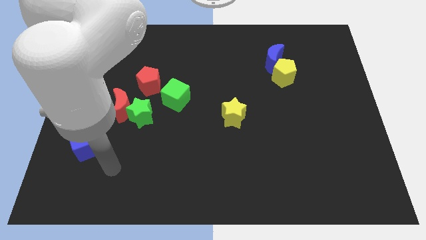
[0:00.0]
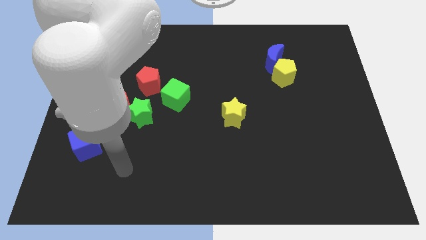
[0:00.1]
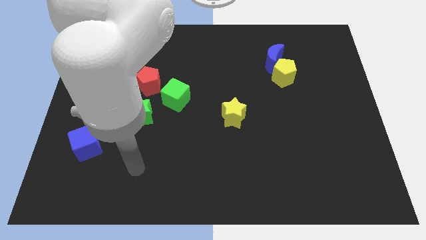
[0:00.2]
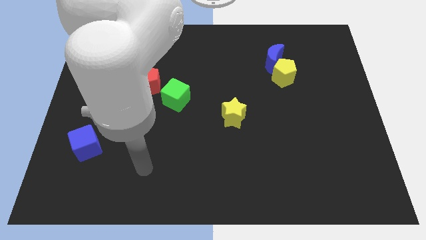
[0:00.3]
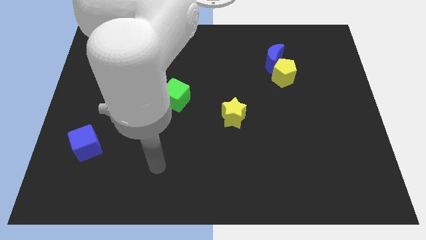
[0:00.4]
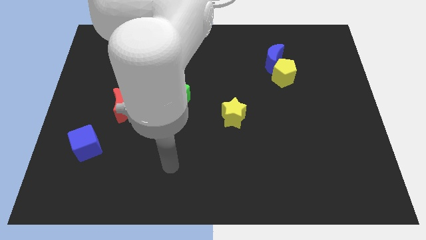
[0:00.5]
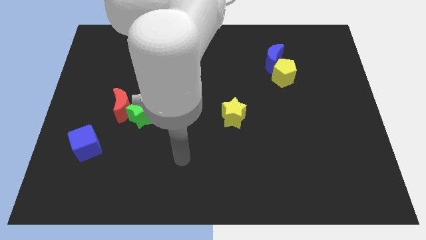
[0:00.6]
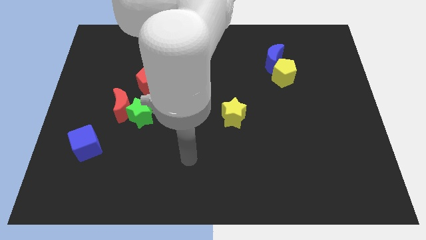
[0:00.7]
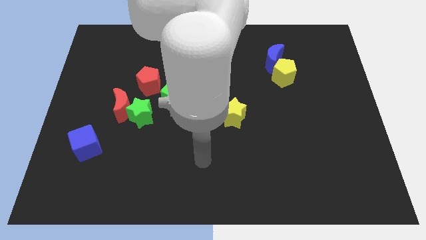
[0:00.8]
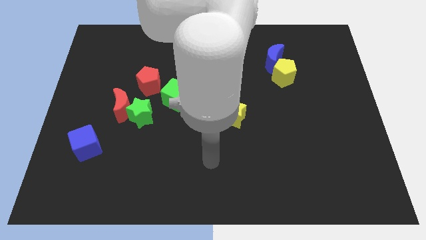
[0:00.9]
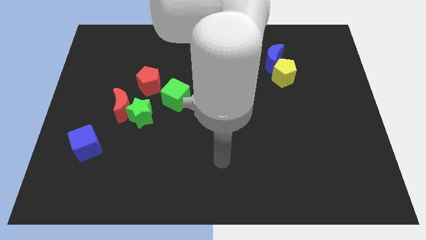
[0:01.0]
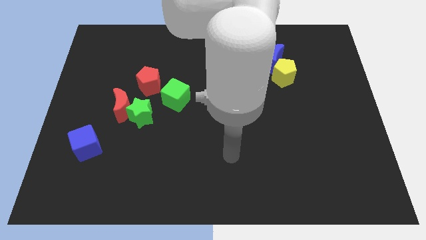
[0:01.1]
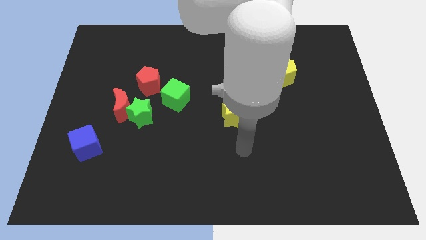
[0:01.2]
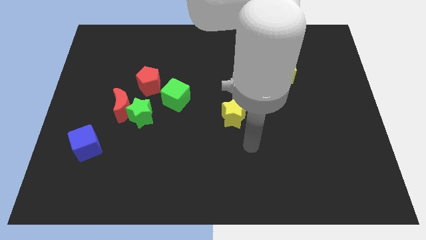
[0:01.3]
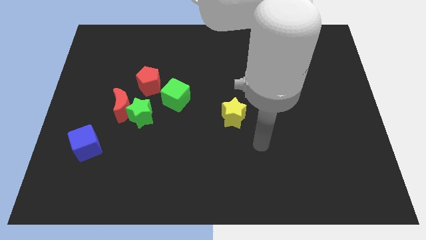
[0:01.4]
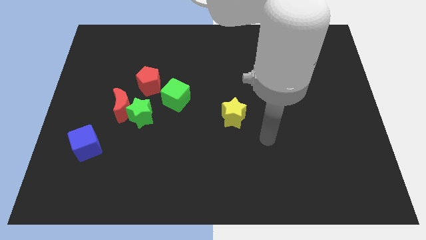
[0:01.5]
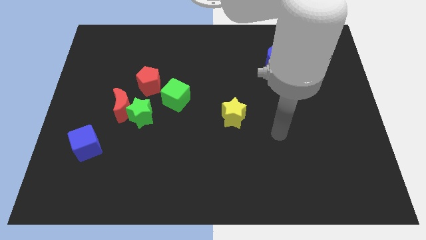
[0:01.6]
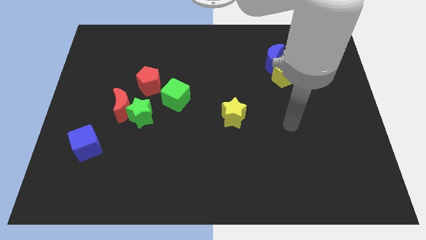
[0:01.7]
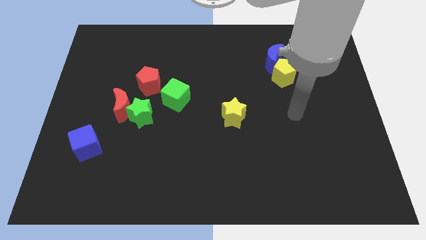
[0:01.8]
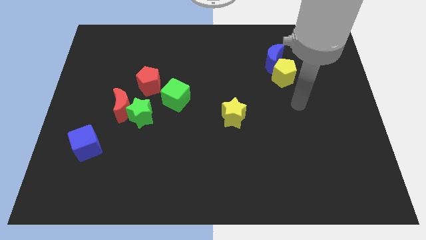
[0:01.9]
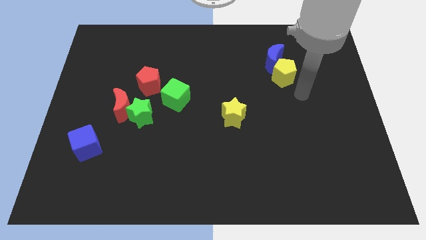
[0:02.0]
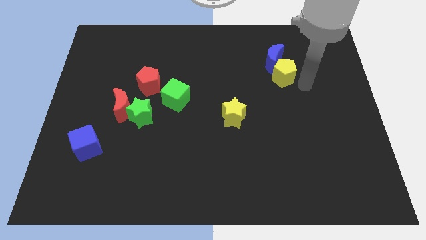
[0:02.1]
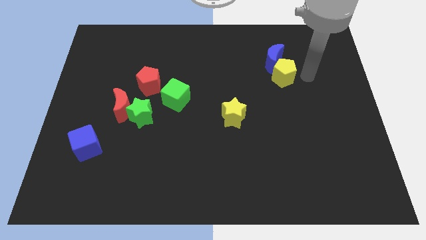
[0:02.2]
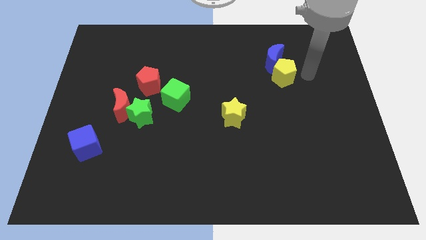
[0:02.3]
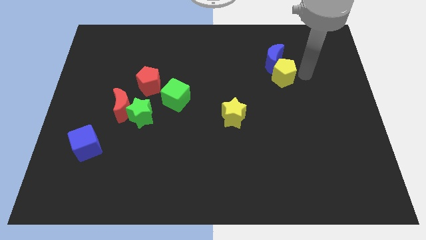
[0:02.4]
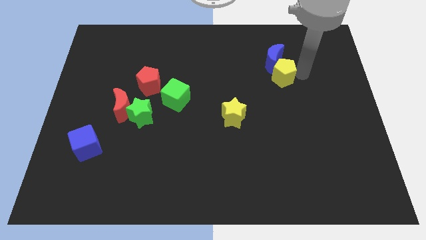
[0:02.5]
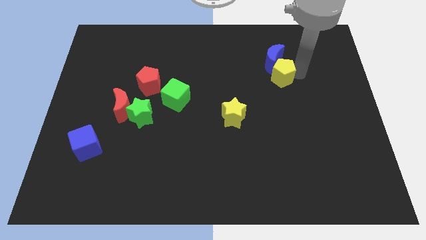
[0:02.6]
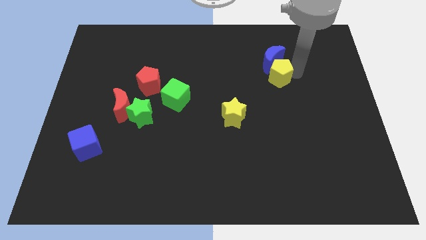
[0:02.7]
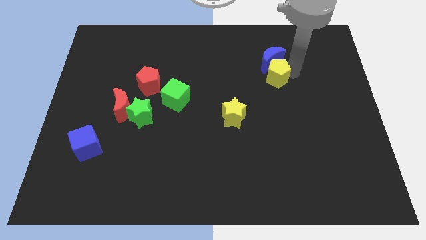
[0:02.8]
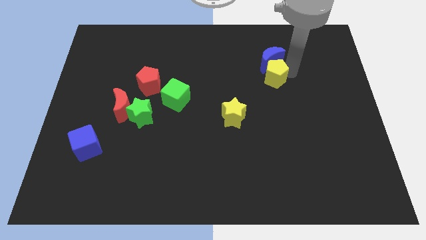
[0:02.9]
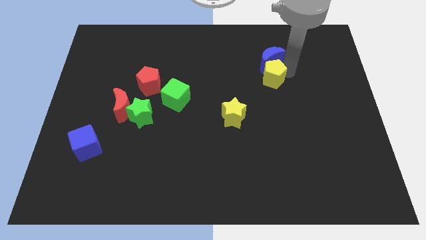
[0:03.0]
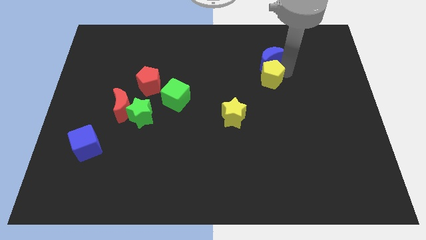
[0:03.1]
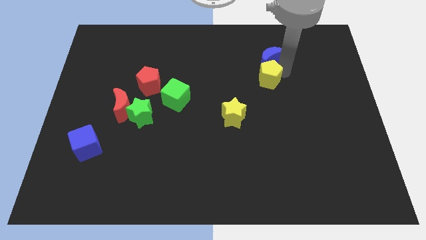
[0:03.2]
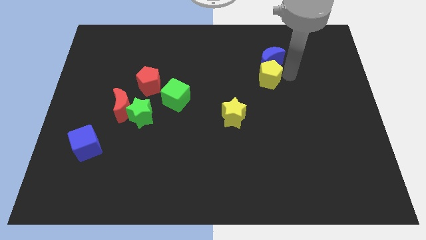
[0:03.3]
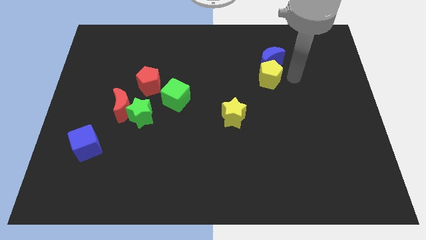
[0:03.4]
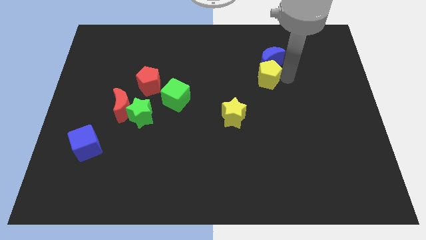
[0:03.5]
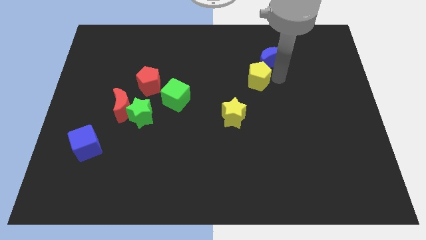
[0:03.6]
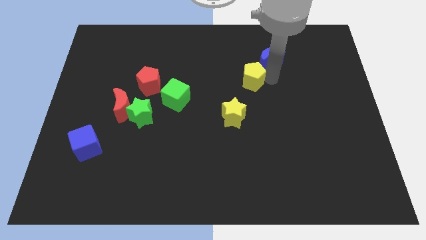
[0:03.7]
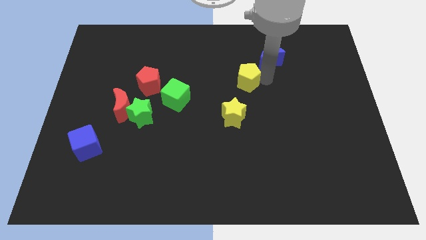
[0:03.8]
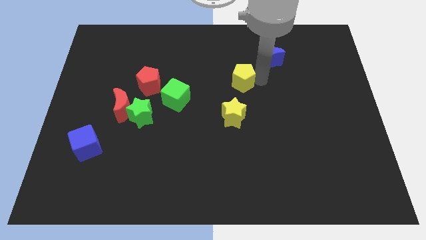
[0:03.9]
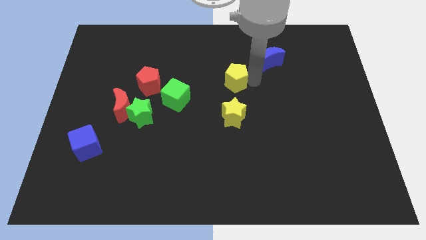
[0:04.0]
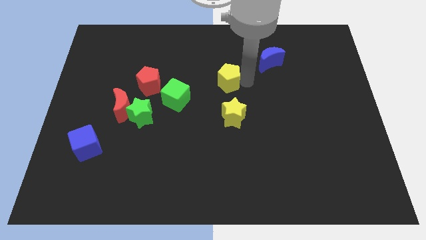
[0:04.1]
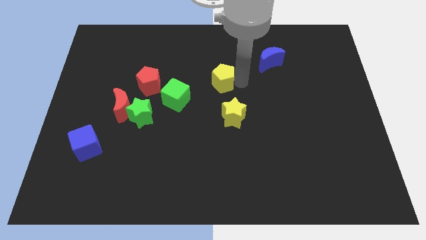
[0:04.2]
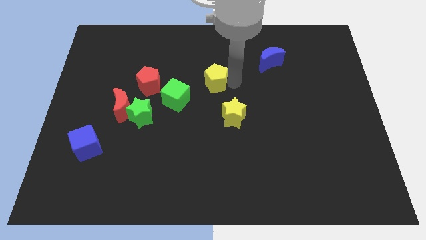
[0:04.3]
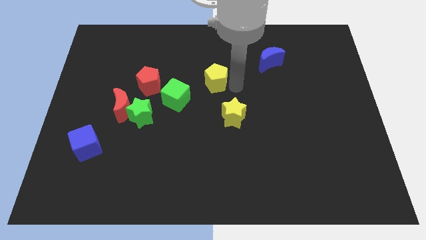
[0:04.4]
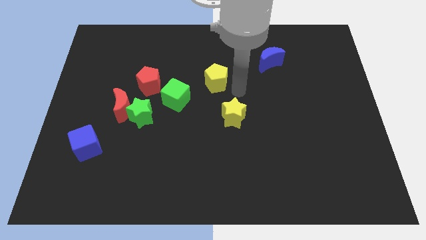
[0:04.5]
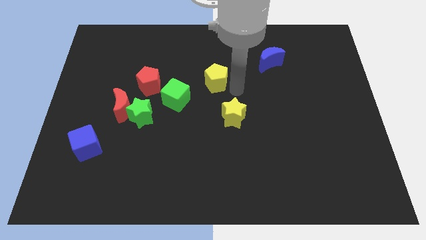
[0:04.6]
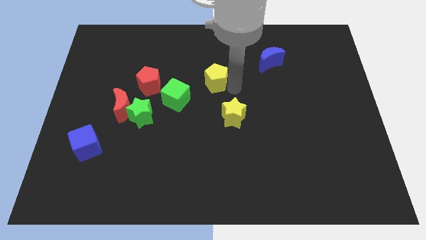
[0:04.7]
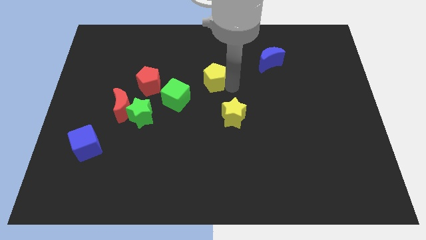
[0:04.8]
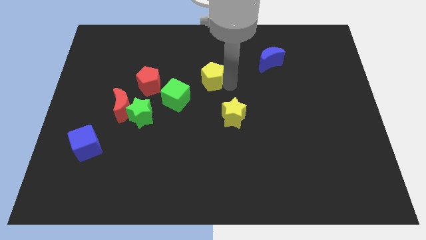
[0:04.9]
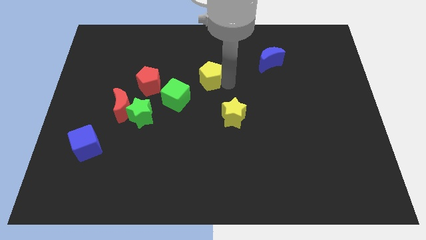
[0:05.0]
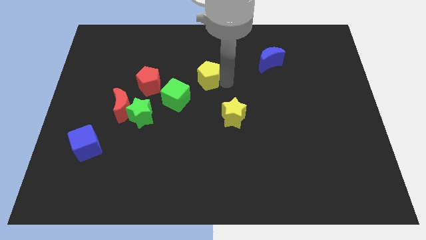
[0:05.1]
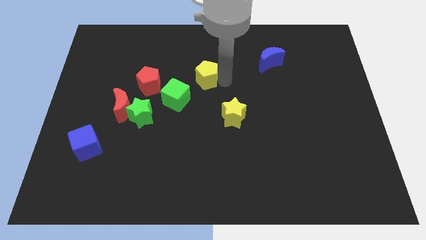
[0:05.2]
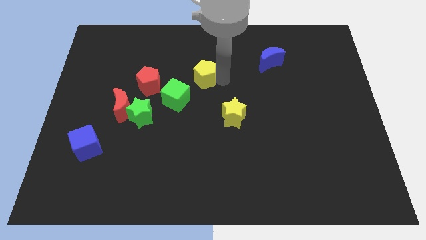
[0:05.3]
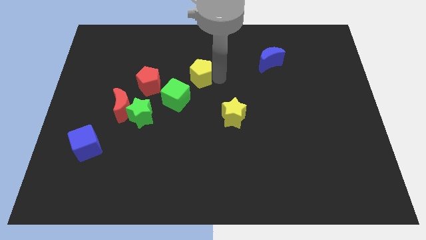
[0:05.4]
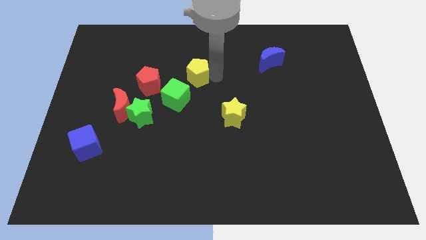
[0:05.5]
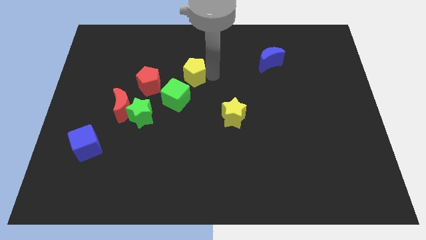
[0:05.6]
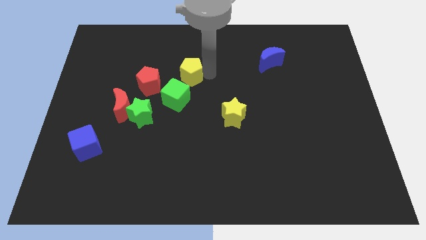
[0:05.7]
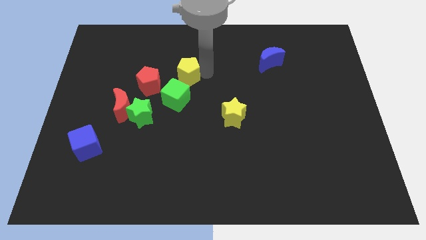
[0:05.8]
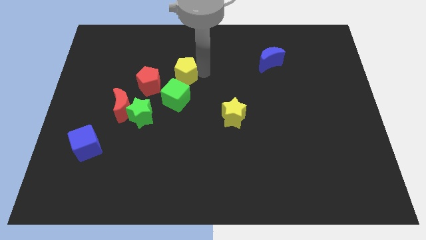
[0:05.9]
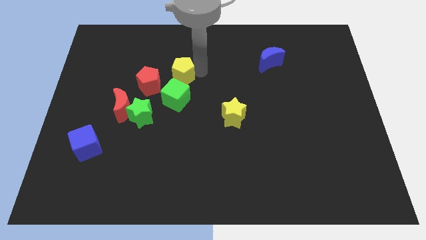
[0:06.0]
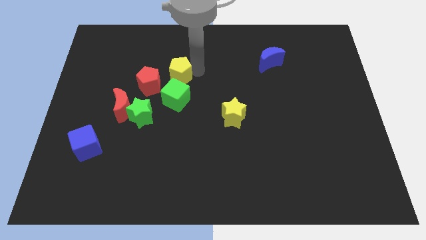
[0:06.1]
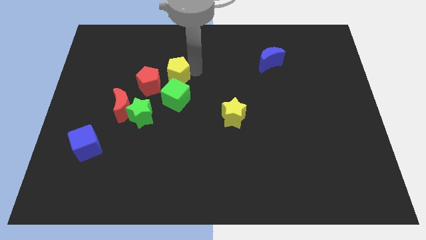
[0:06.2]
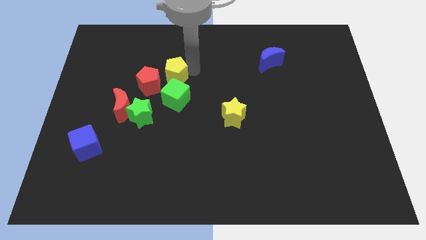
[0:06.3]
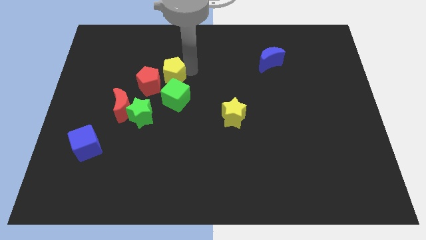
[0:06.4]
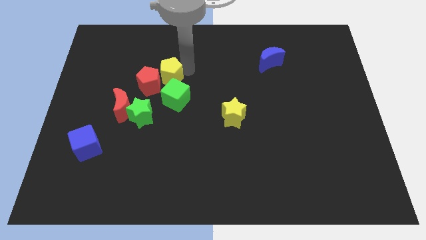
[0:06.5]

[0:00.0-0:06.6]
put the yellow pentagon next to the red pentagon

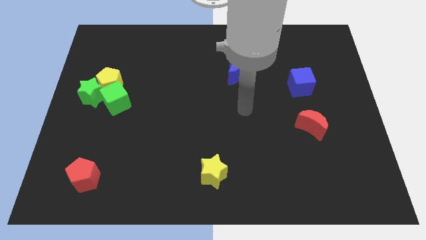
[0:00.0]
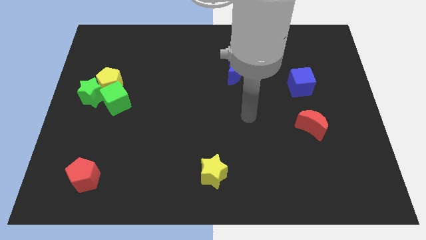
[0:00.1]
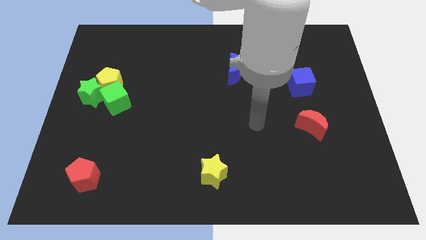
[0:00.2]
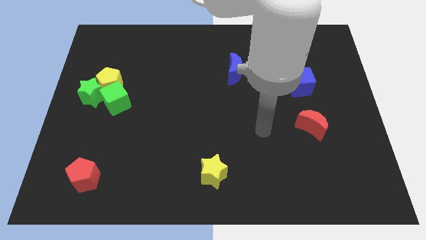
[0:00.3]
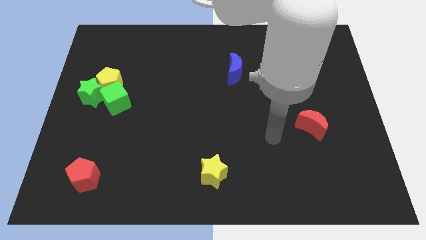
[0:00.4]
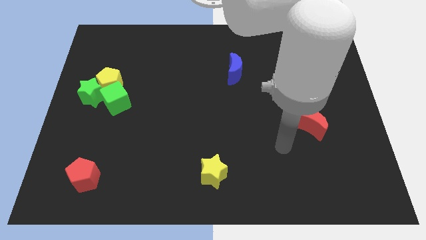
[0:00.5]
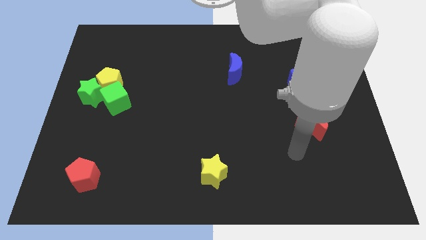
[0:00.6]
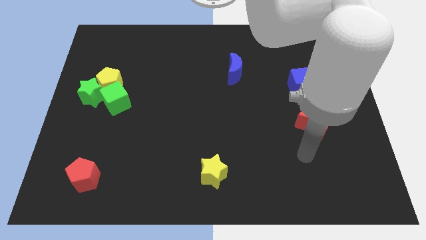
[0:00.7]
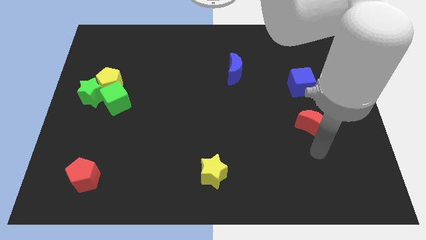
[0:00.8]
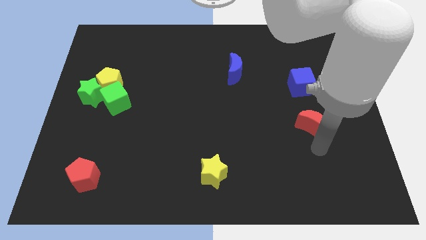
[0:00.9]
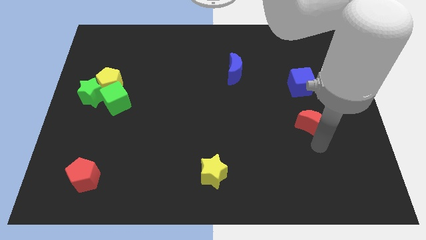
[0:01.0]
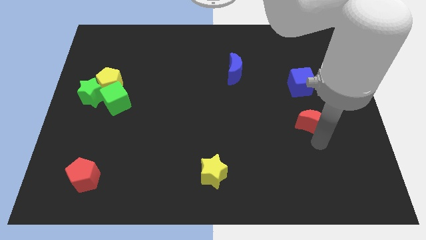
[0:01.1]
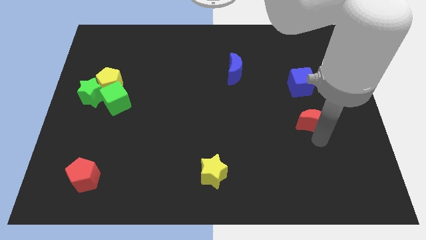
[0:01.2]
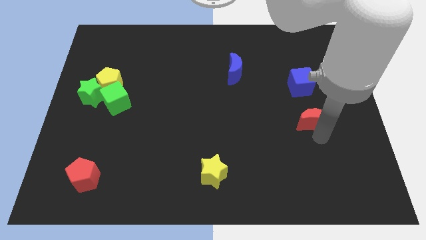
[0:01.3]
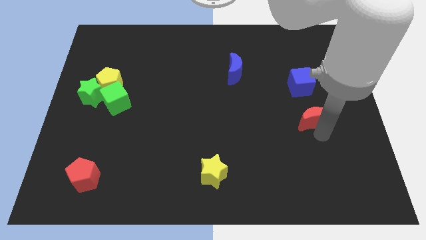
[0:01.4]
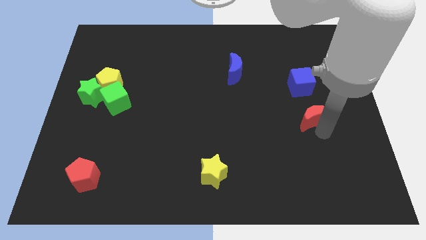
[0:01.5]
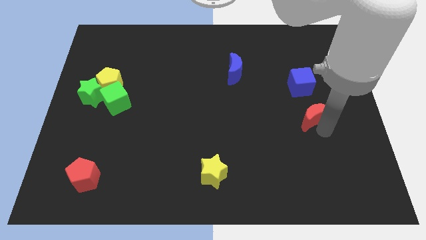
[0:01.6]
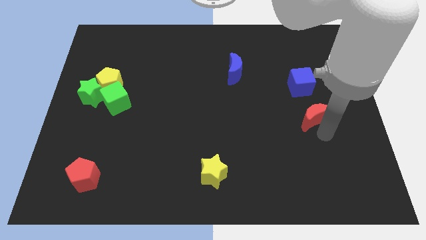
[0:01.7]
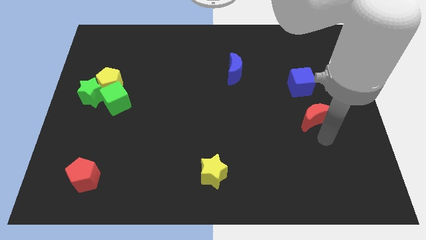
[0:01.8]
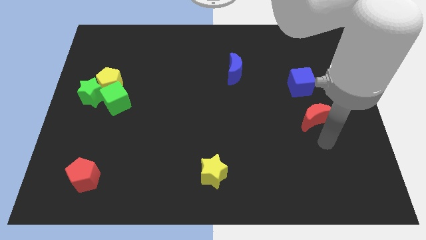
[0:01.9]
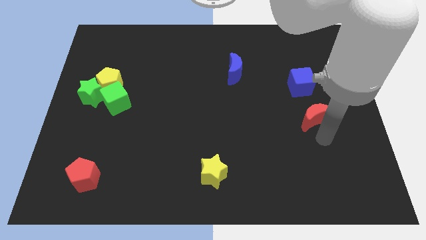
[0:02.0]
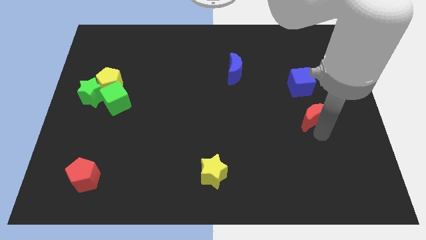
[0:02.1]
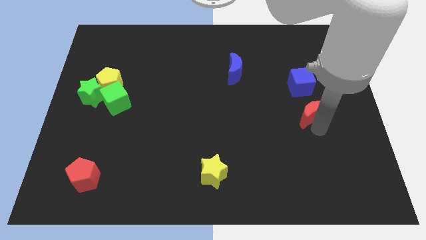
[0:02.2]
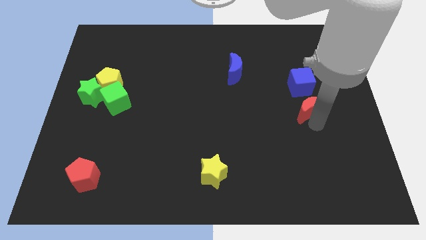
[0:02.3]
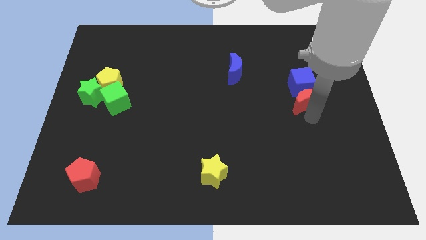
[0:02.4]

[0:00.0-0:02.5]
put the red moon towards the blue cube
